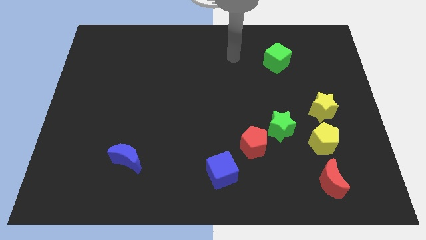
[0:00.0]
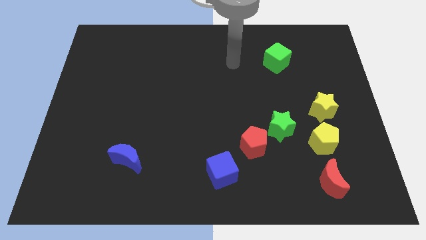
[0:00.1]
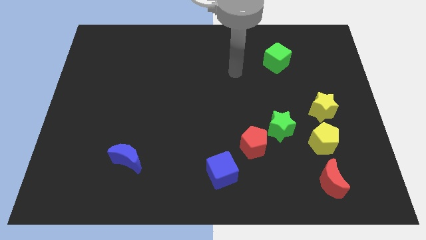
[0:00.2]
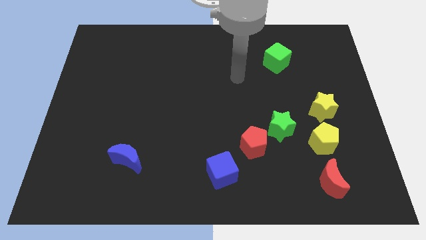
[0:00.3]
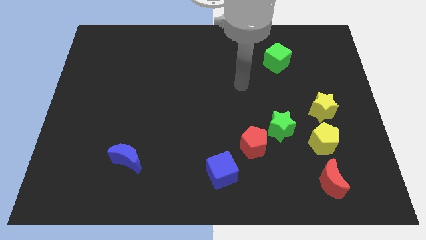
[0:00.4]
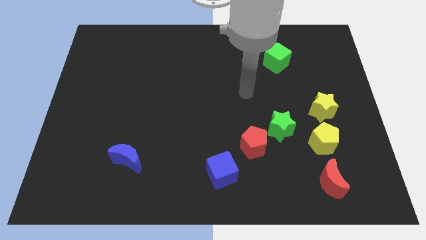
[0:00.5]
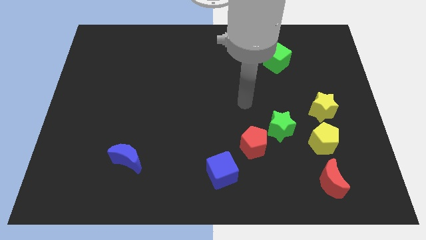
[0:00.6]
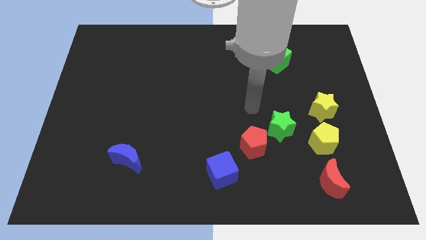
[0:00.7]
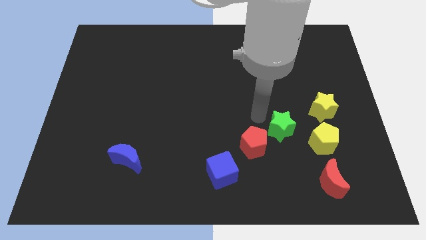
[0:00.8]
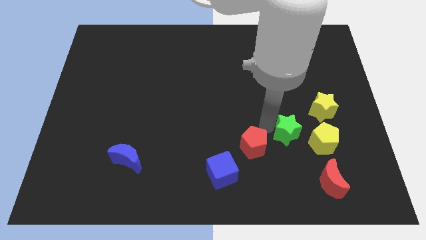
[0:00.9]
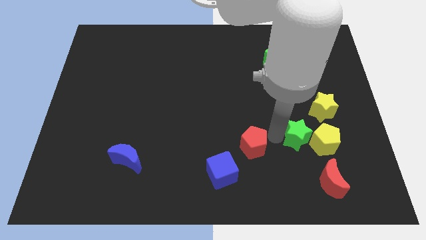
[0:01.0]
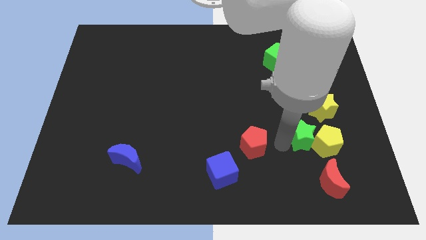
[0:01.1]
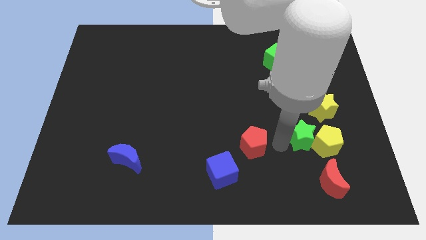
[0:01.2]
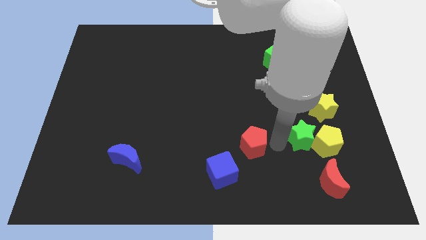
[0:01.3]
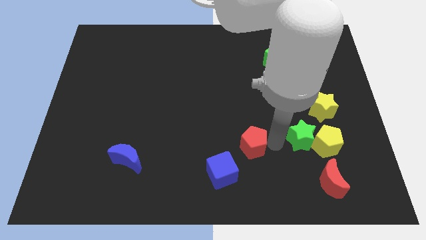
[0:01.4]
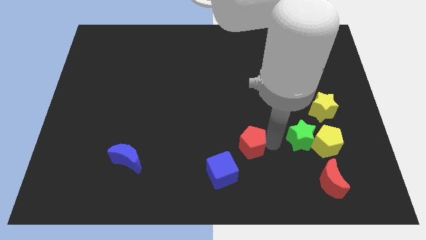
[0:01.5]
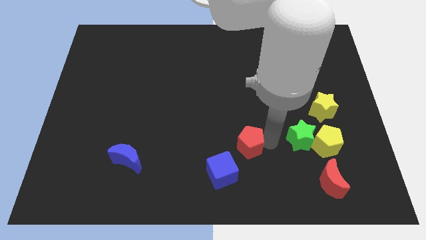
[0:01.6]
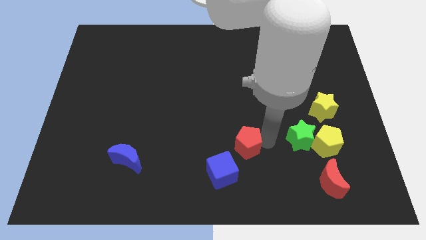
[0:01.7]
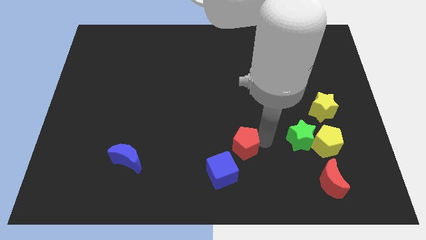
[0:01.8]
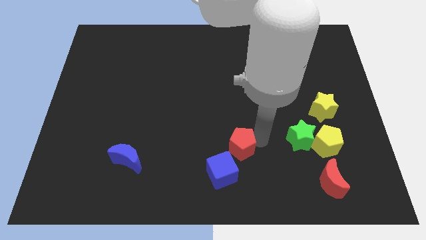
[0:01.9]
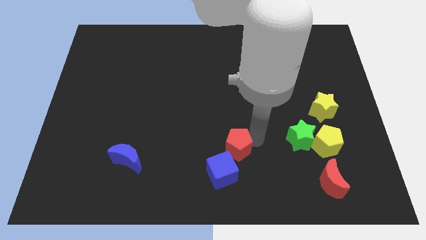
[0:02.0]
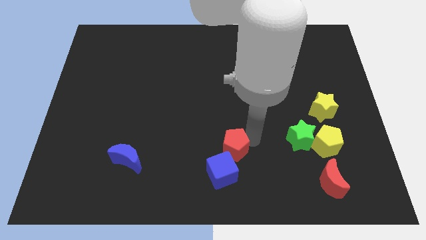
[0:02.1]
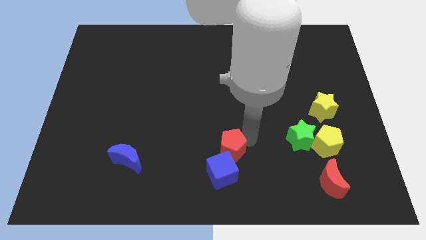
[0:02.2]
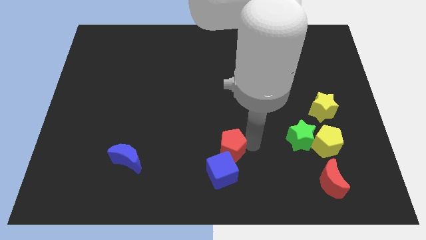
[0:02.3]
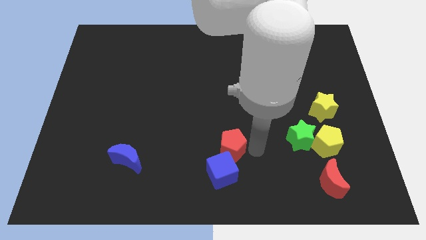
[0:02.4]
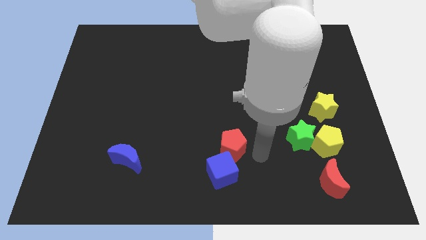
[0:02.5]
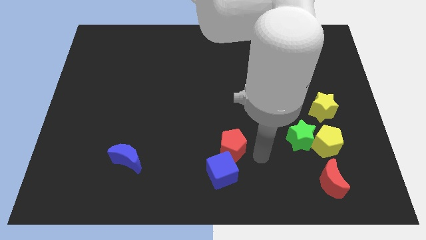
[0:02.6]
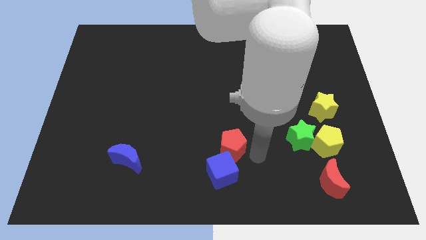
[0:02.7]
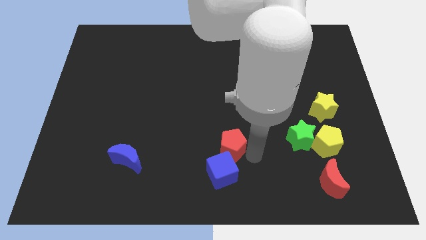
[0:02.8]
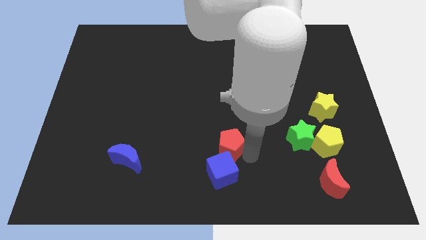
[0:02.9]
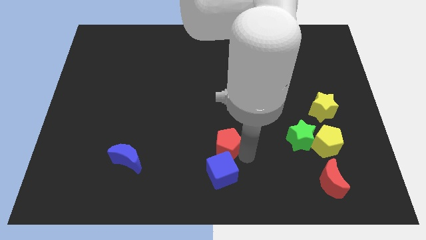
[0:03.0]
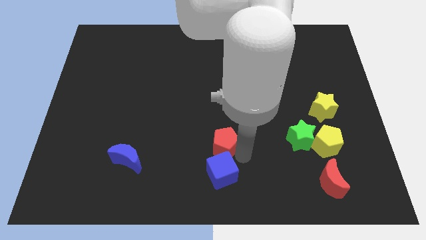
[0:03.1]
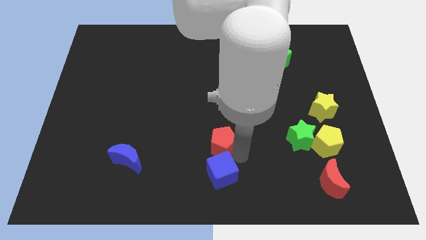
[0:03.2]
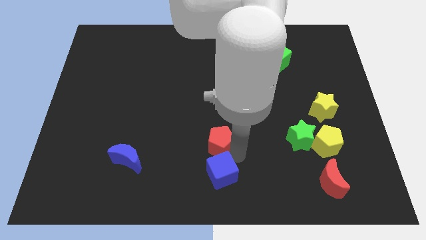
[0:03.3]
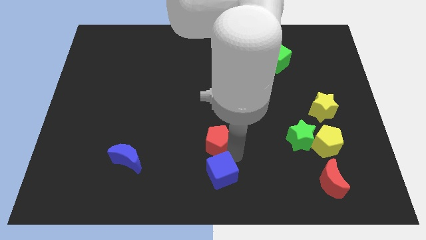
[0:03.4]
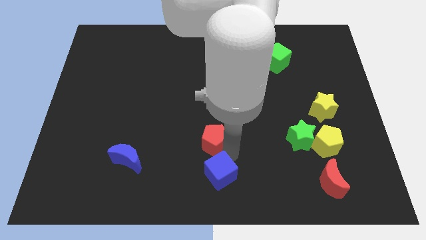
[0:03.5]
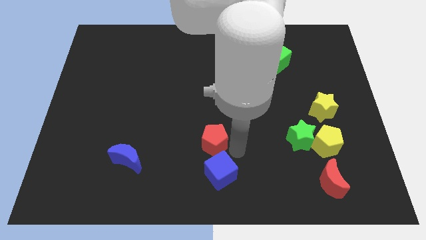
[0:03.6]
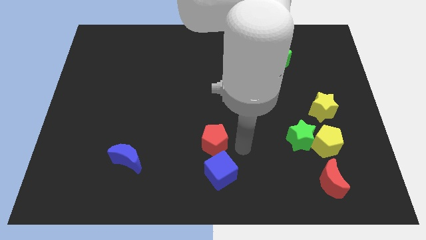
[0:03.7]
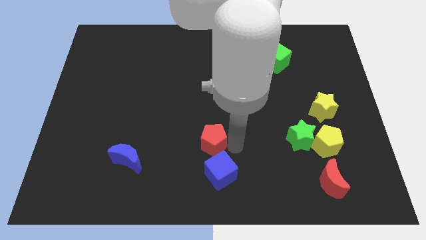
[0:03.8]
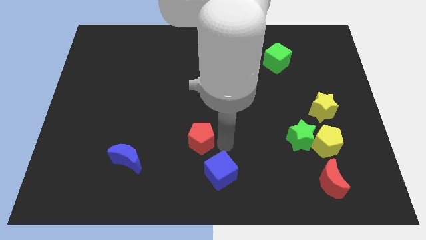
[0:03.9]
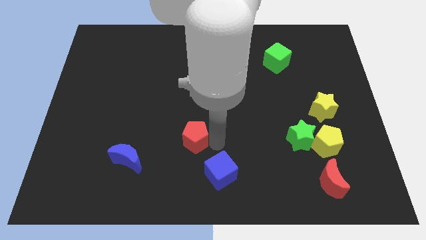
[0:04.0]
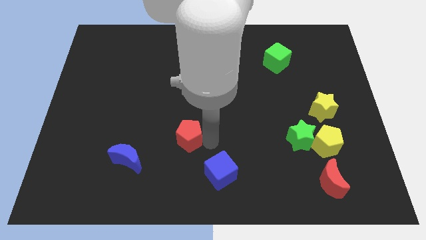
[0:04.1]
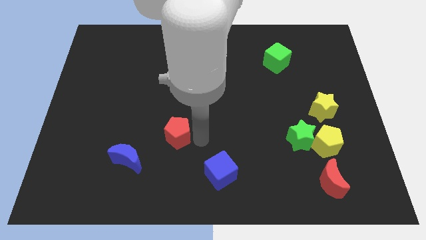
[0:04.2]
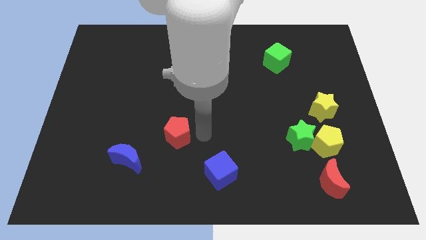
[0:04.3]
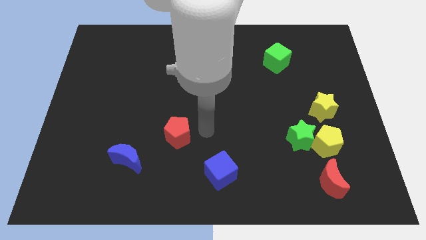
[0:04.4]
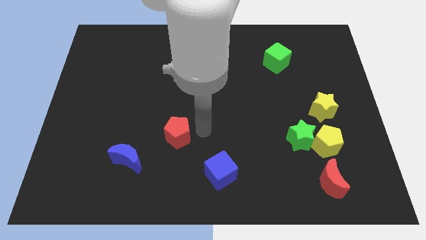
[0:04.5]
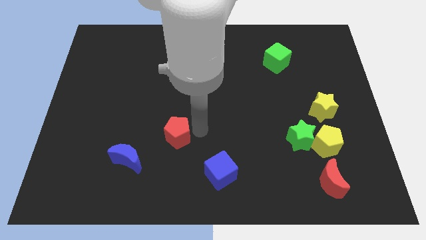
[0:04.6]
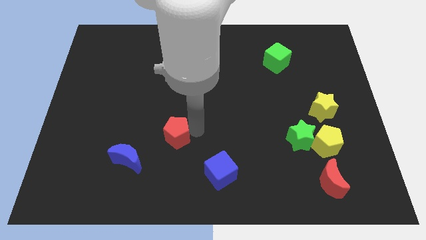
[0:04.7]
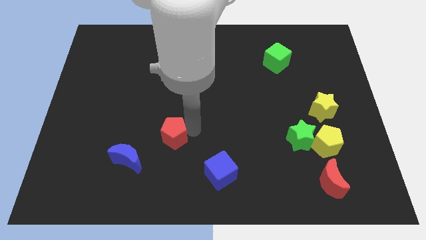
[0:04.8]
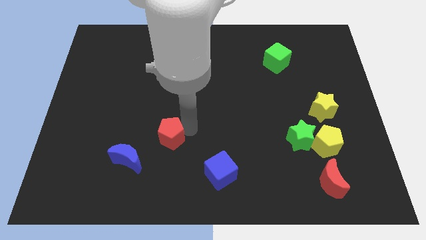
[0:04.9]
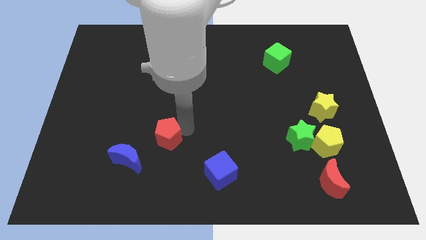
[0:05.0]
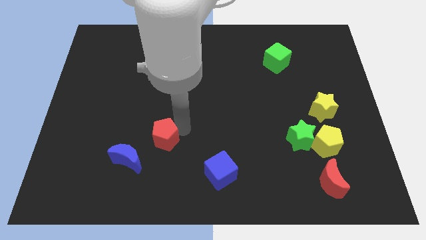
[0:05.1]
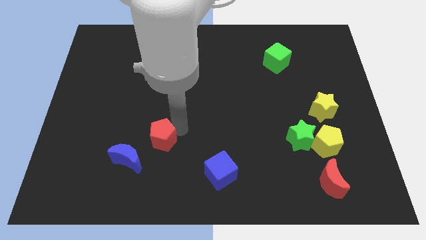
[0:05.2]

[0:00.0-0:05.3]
slide the red pentagon left

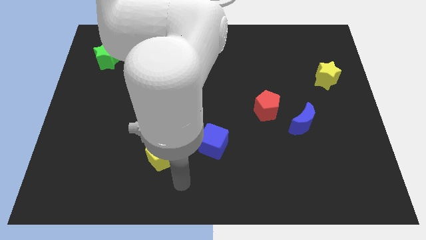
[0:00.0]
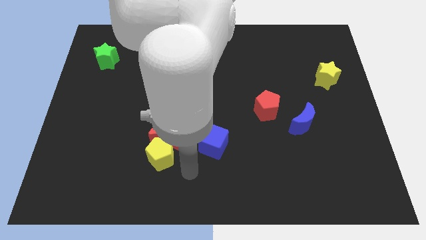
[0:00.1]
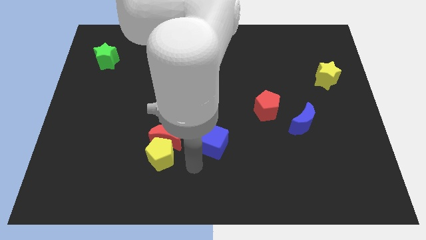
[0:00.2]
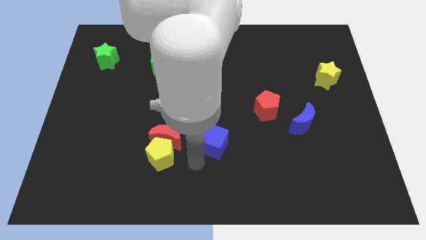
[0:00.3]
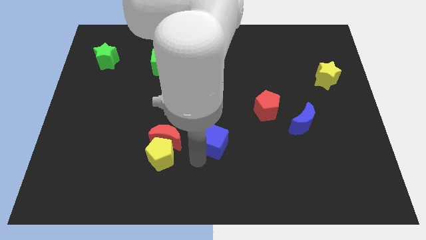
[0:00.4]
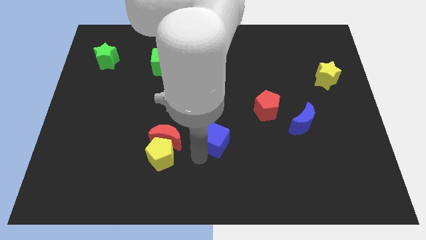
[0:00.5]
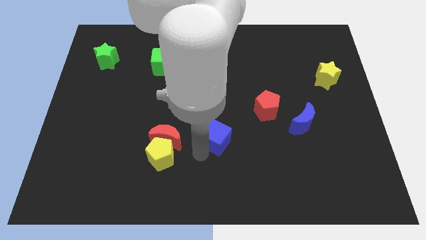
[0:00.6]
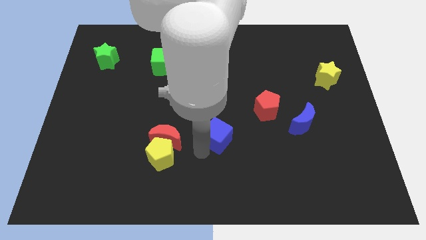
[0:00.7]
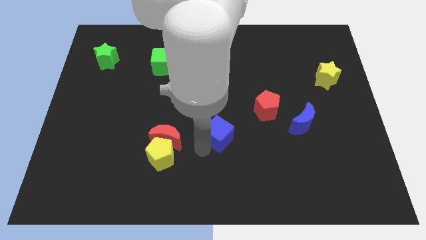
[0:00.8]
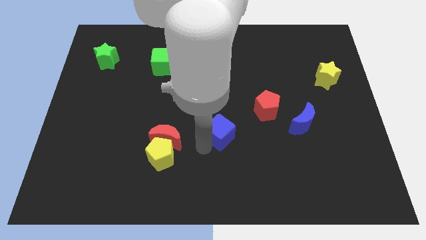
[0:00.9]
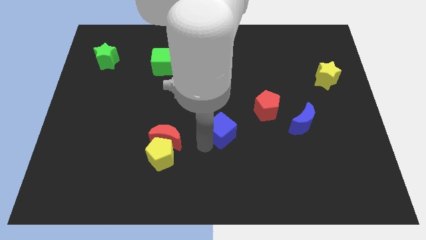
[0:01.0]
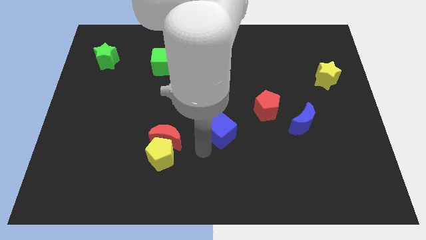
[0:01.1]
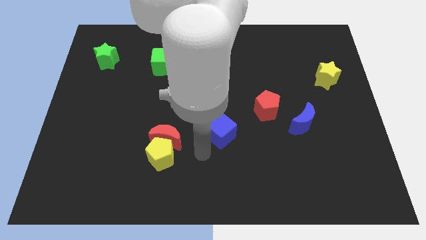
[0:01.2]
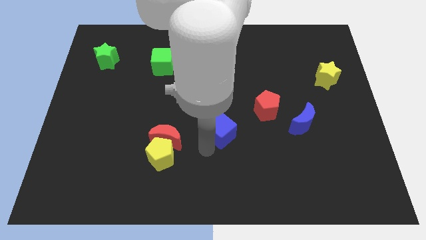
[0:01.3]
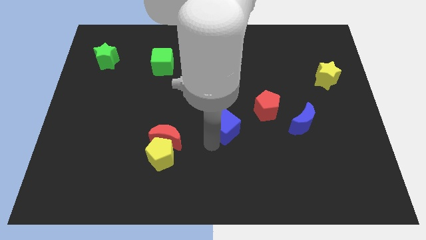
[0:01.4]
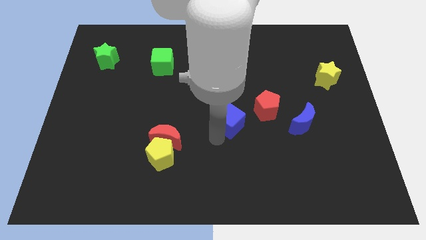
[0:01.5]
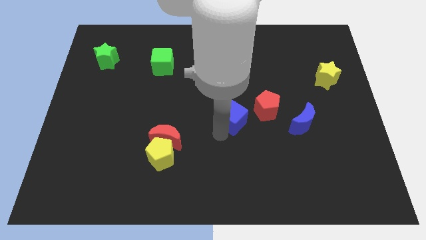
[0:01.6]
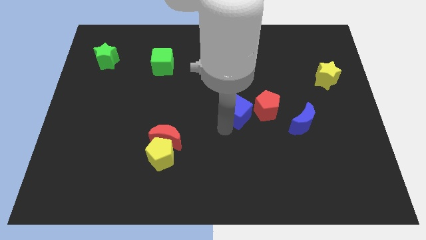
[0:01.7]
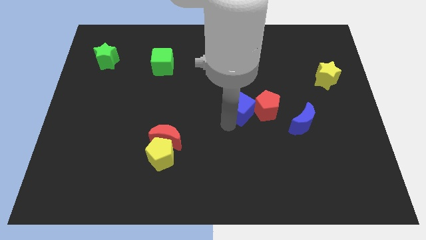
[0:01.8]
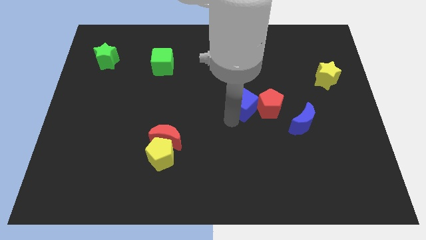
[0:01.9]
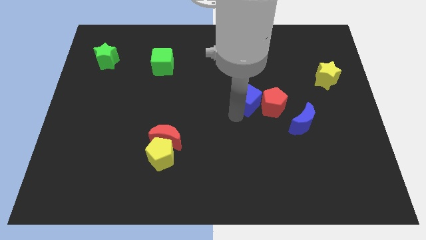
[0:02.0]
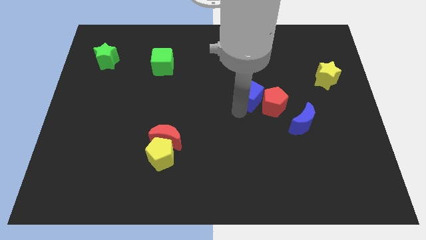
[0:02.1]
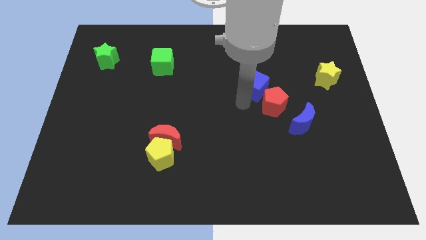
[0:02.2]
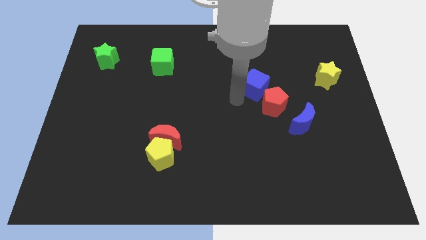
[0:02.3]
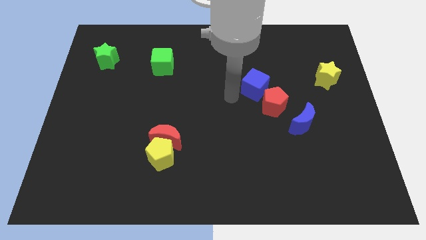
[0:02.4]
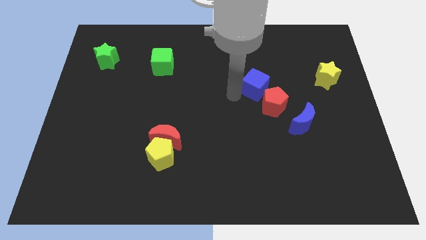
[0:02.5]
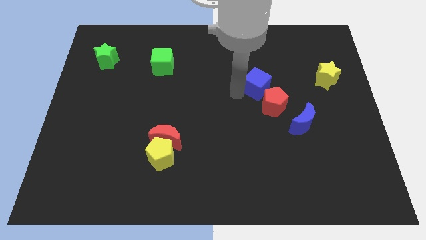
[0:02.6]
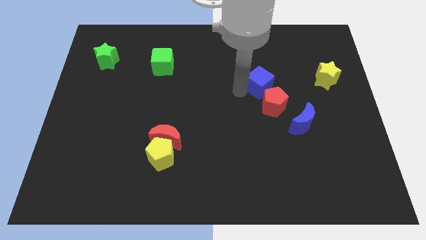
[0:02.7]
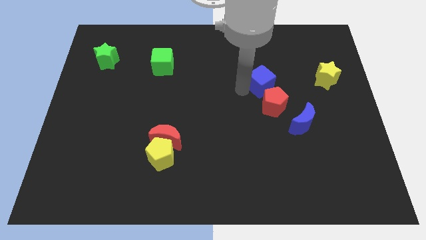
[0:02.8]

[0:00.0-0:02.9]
slide the blue cube upwards and right
